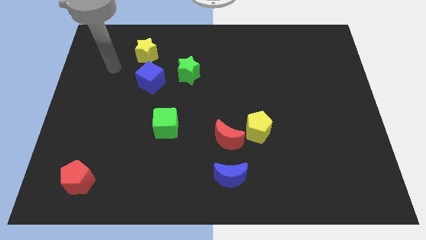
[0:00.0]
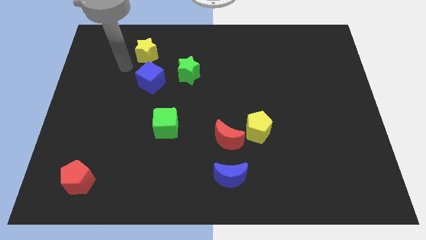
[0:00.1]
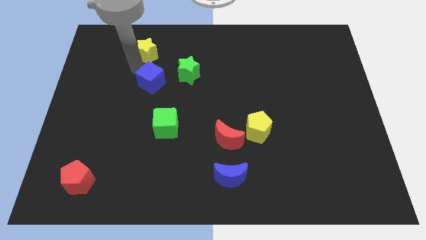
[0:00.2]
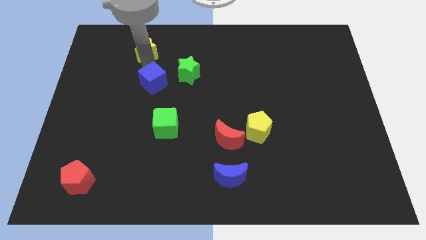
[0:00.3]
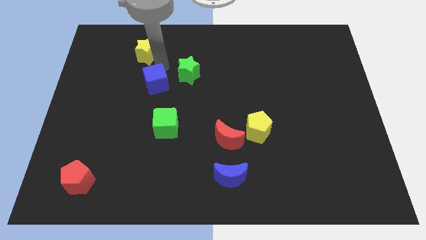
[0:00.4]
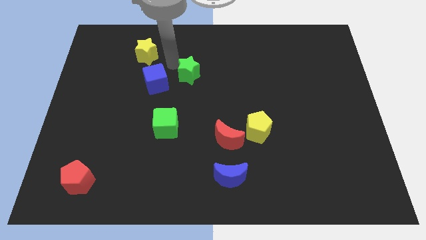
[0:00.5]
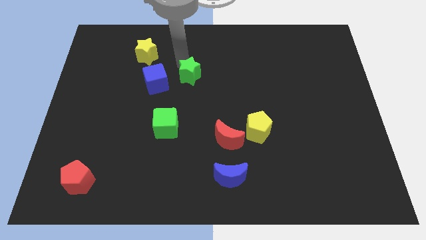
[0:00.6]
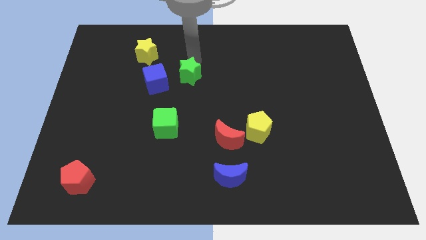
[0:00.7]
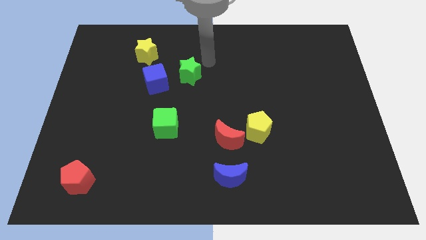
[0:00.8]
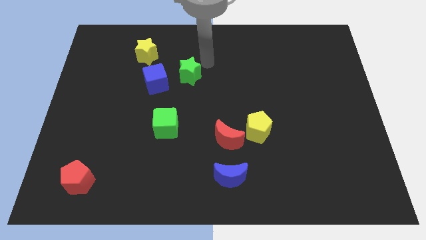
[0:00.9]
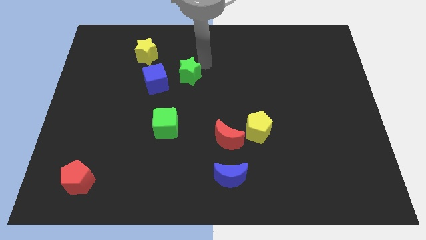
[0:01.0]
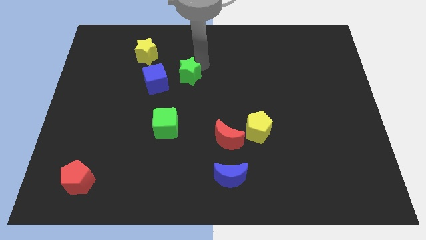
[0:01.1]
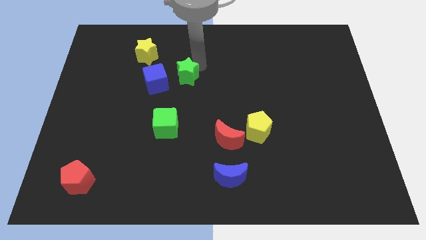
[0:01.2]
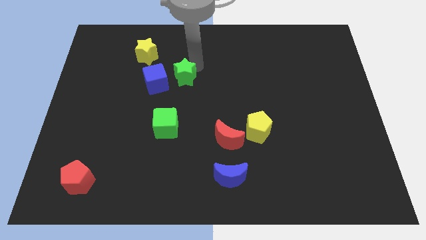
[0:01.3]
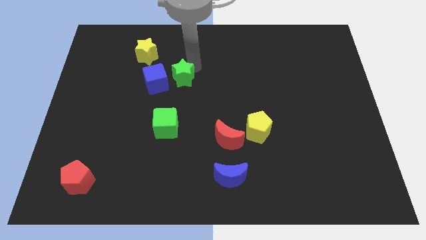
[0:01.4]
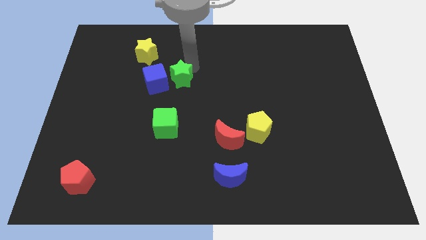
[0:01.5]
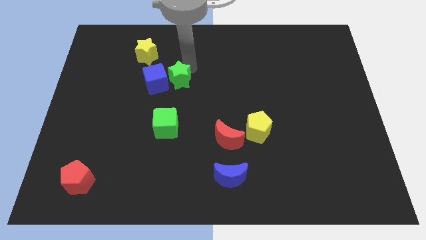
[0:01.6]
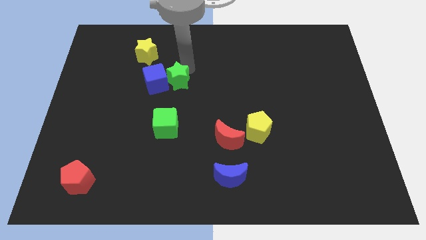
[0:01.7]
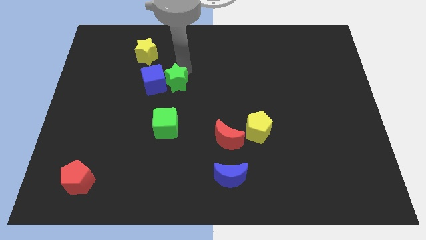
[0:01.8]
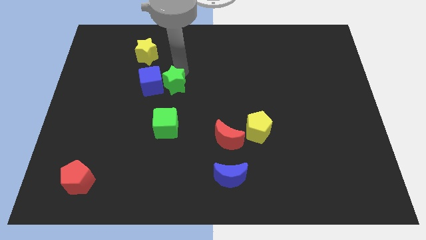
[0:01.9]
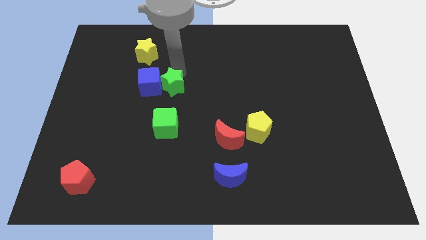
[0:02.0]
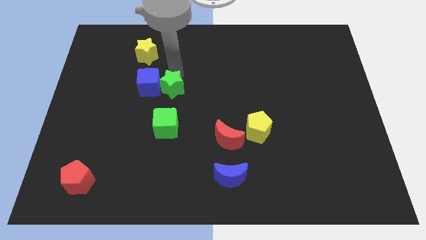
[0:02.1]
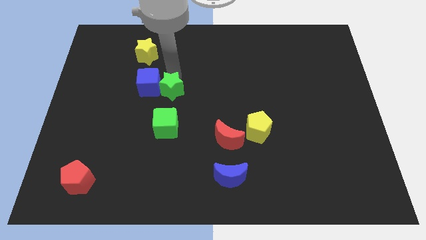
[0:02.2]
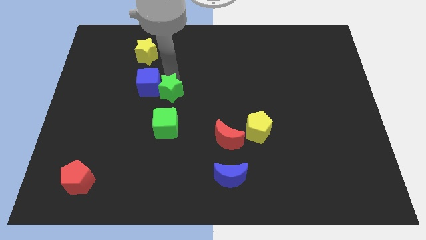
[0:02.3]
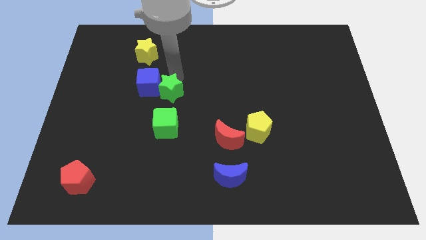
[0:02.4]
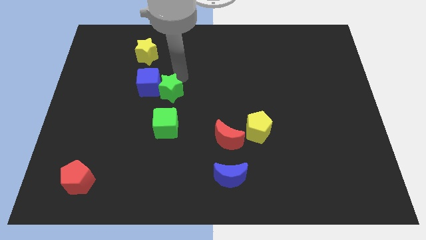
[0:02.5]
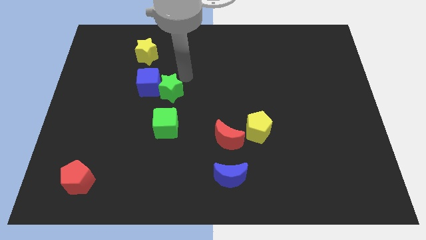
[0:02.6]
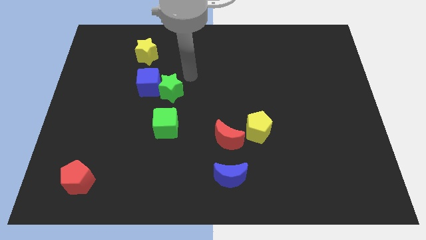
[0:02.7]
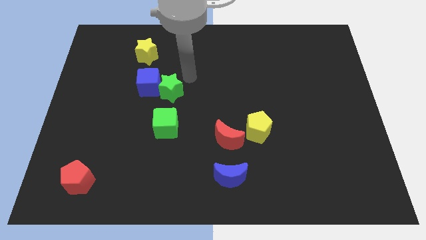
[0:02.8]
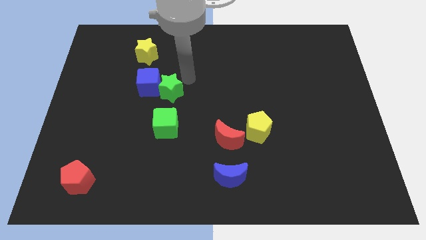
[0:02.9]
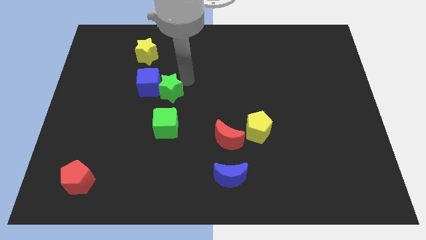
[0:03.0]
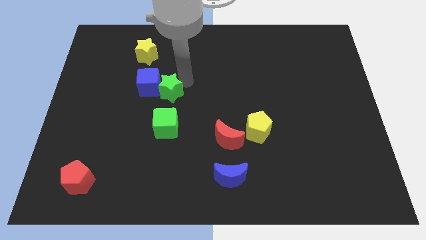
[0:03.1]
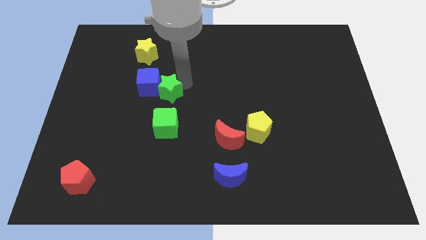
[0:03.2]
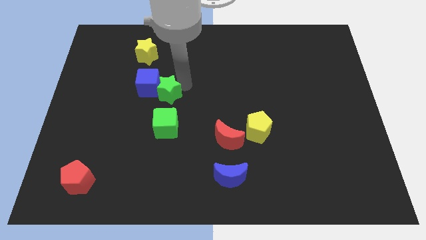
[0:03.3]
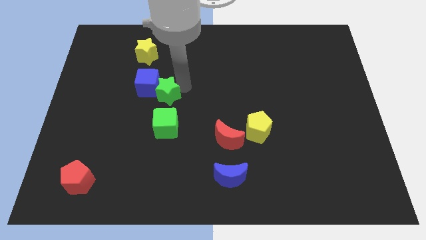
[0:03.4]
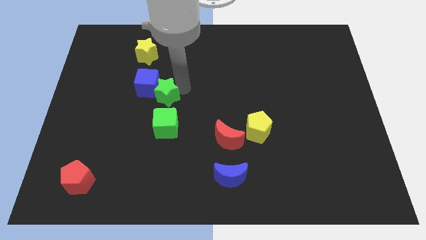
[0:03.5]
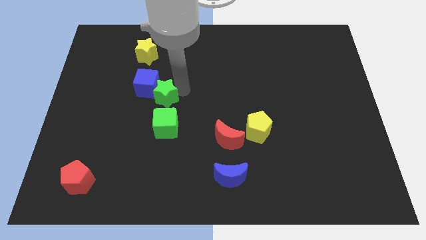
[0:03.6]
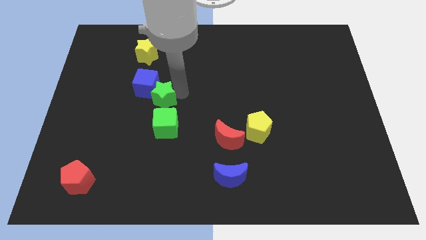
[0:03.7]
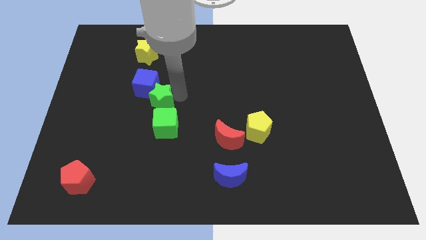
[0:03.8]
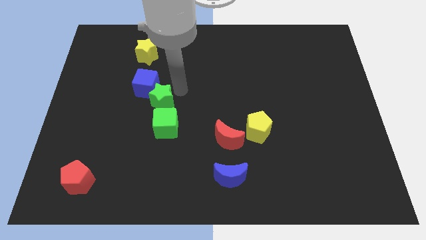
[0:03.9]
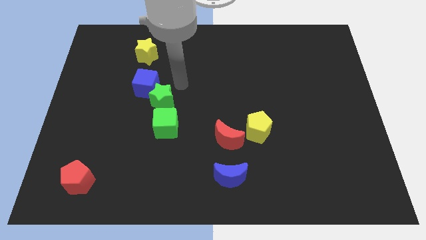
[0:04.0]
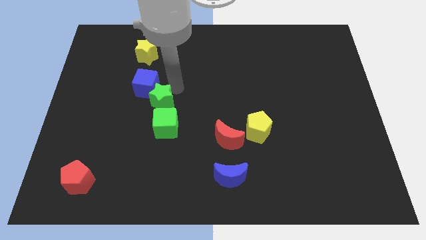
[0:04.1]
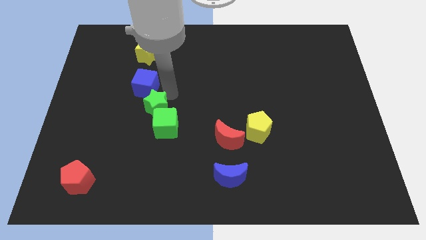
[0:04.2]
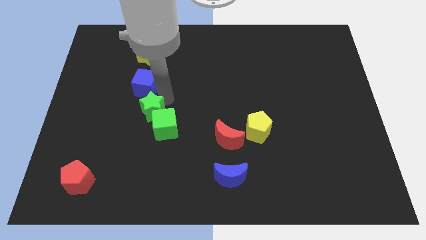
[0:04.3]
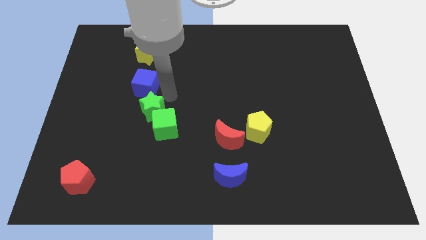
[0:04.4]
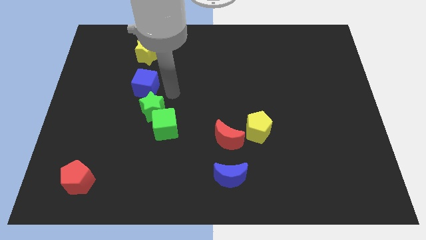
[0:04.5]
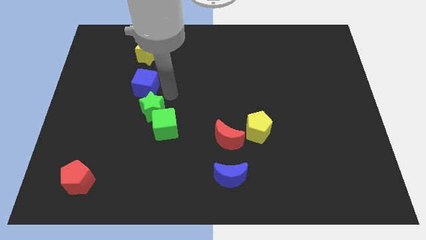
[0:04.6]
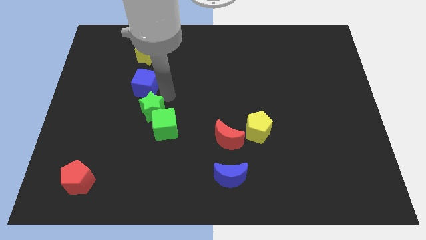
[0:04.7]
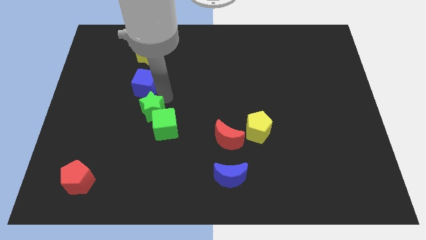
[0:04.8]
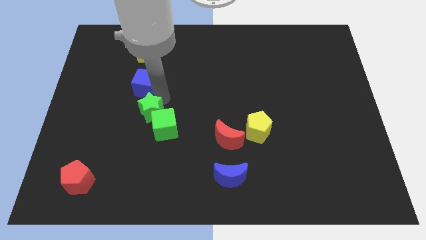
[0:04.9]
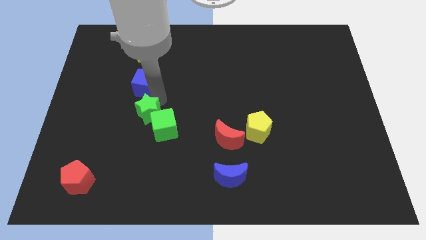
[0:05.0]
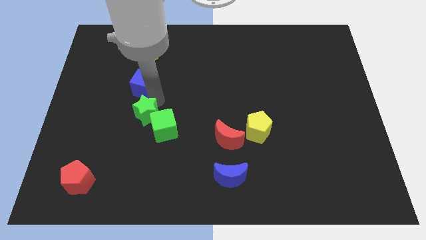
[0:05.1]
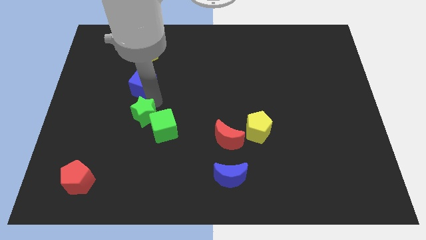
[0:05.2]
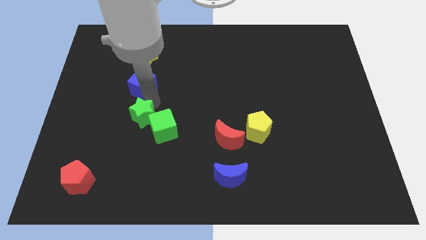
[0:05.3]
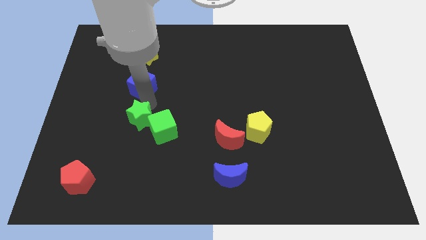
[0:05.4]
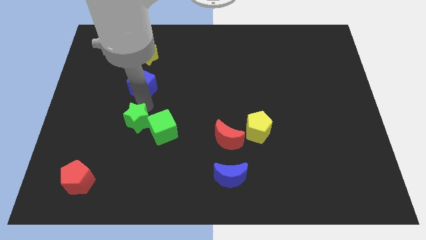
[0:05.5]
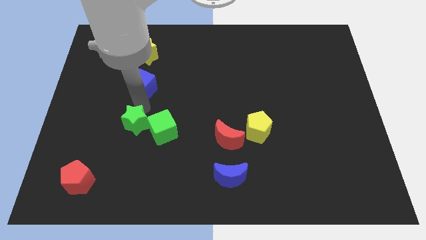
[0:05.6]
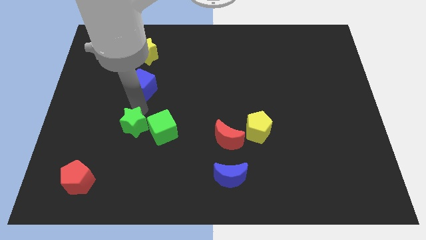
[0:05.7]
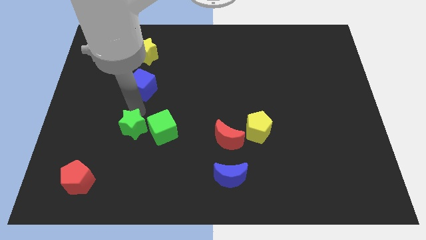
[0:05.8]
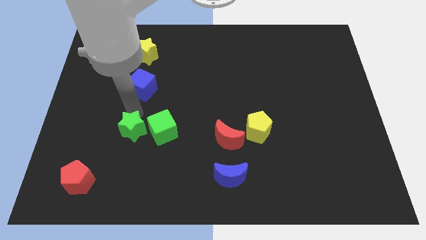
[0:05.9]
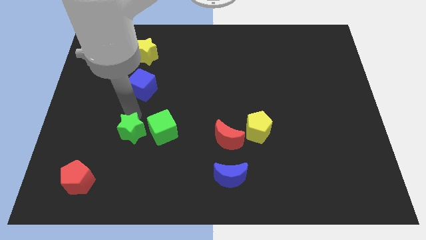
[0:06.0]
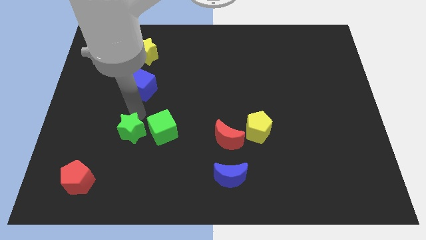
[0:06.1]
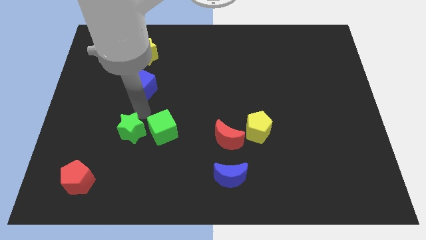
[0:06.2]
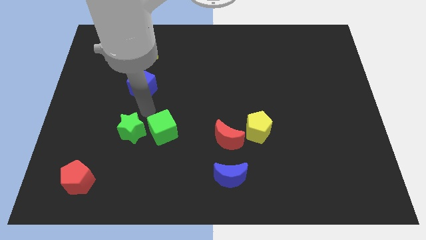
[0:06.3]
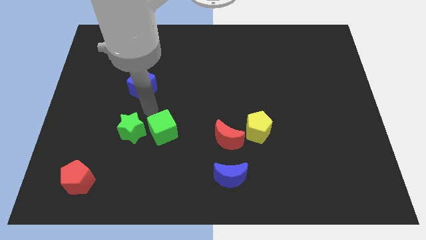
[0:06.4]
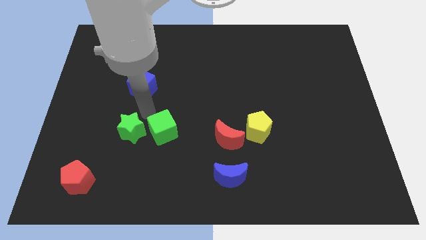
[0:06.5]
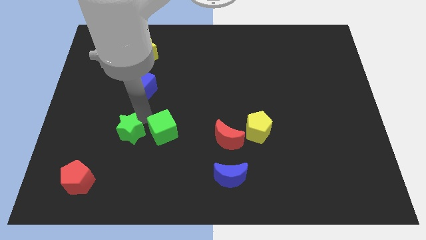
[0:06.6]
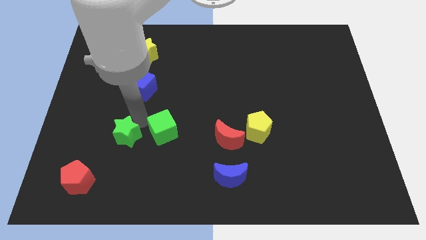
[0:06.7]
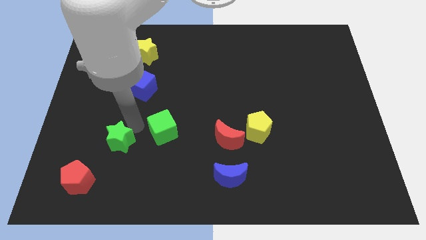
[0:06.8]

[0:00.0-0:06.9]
move the green star to the top right of the red pentagon
